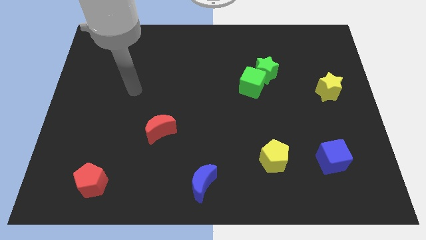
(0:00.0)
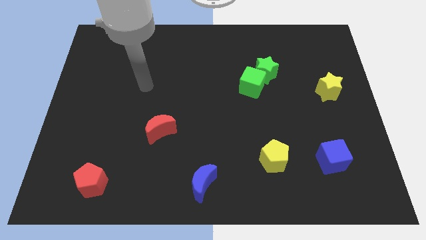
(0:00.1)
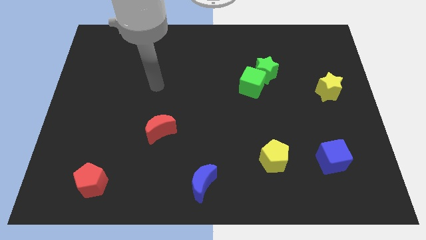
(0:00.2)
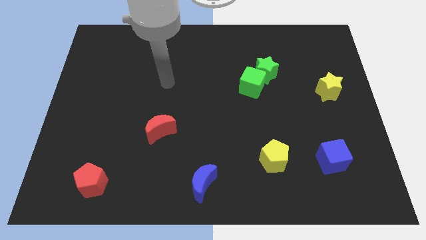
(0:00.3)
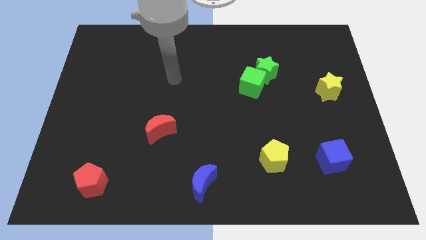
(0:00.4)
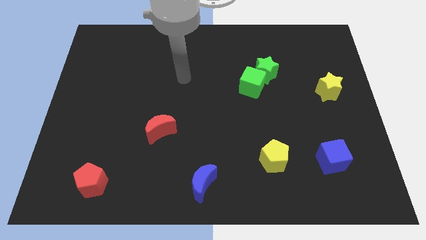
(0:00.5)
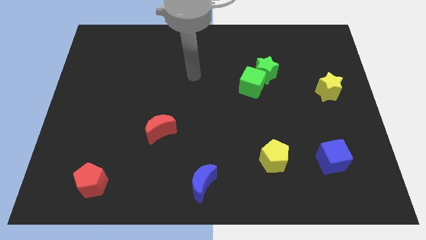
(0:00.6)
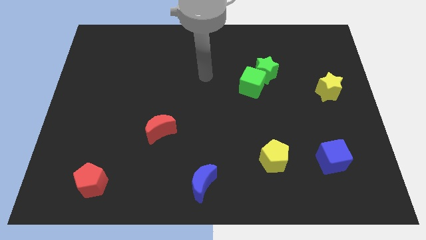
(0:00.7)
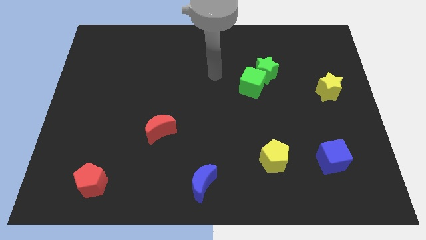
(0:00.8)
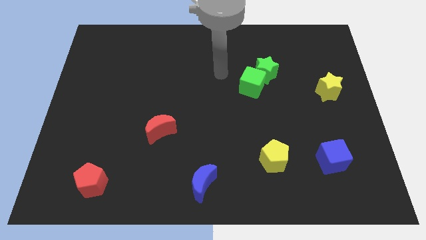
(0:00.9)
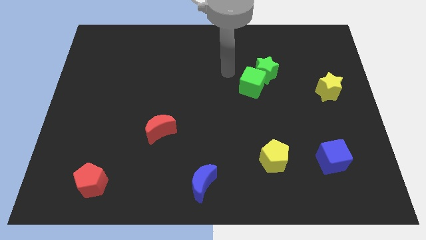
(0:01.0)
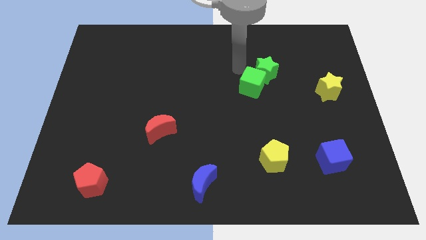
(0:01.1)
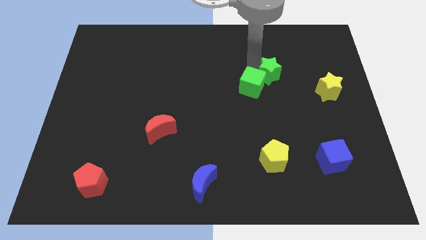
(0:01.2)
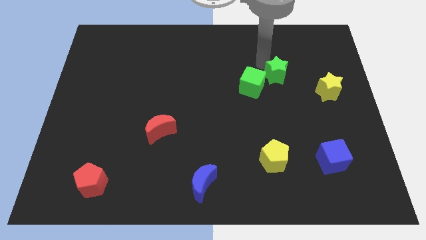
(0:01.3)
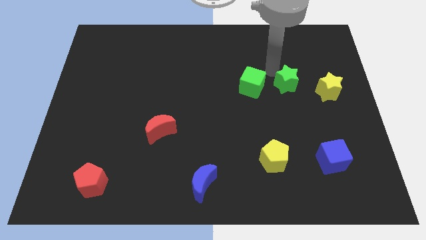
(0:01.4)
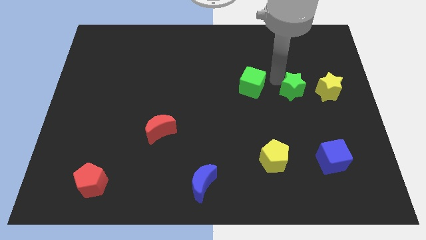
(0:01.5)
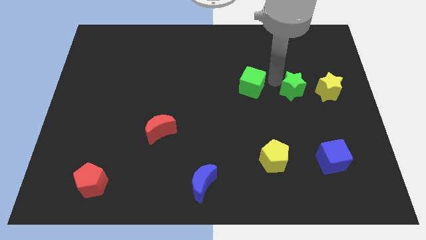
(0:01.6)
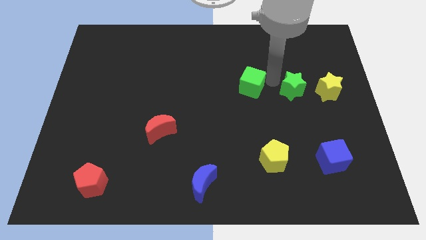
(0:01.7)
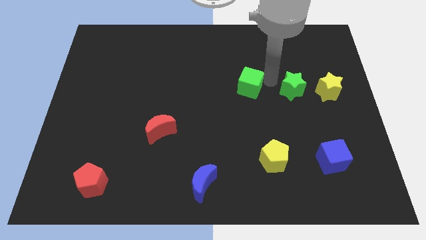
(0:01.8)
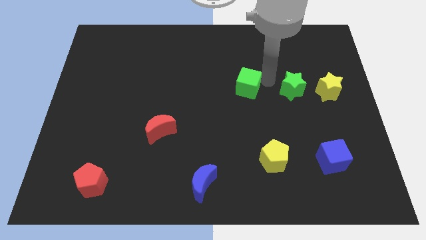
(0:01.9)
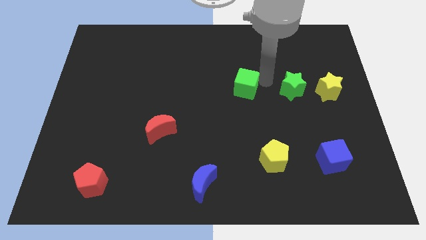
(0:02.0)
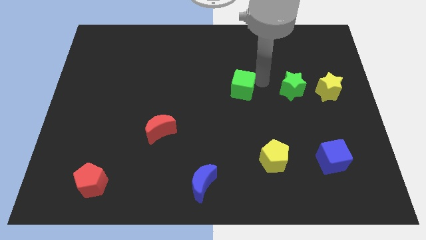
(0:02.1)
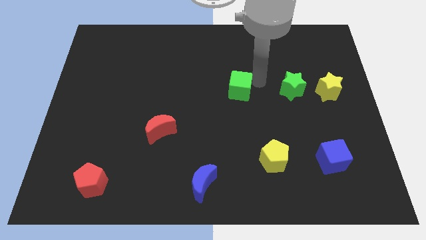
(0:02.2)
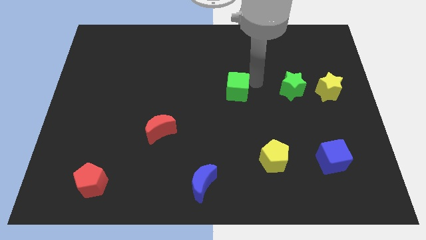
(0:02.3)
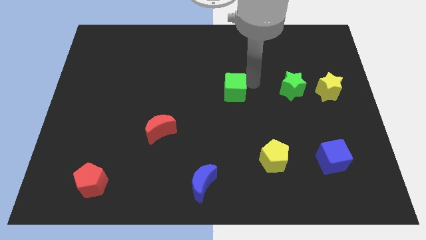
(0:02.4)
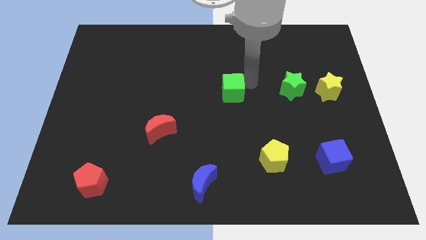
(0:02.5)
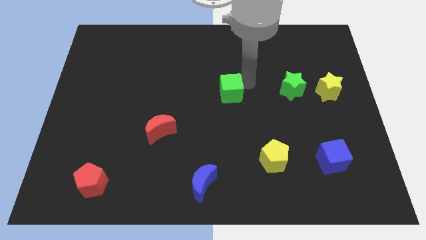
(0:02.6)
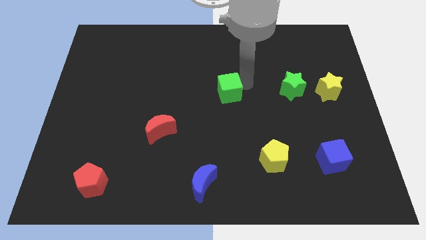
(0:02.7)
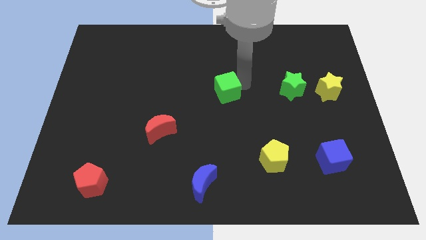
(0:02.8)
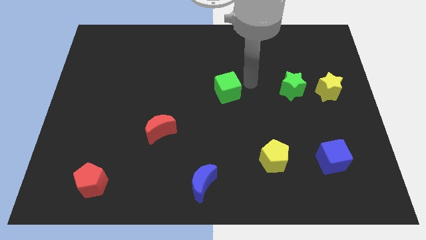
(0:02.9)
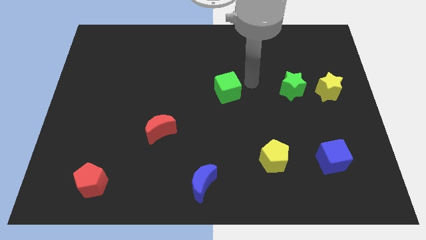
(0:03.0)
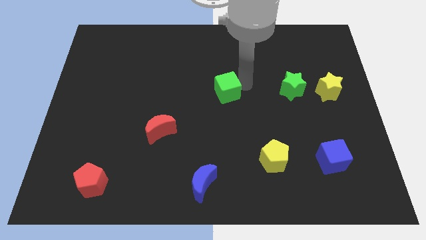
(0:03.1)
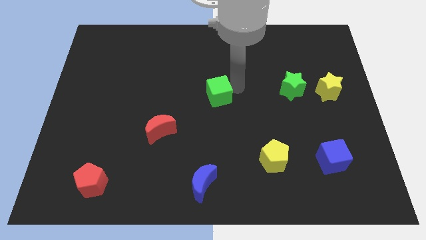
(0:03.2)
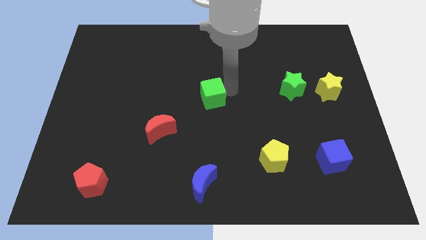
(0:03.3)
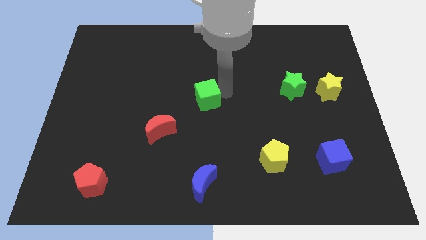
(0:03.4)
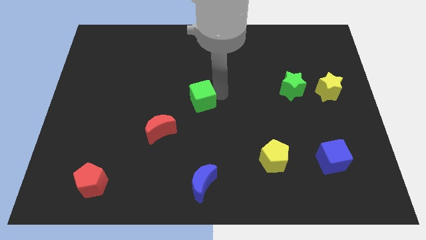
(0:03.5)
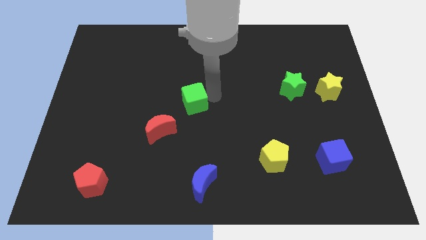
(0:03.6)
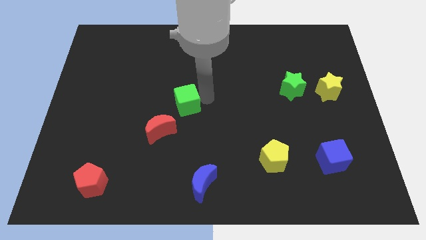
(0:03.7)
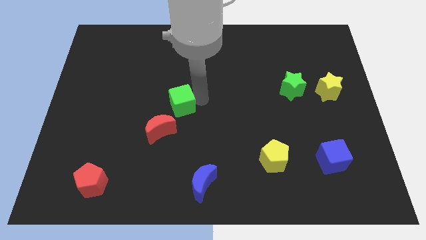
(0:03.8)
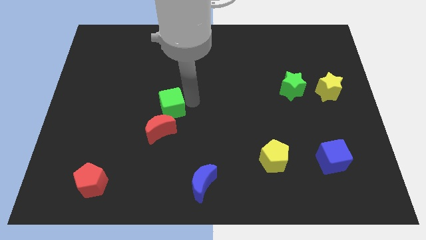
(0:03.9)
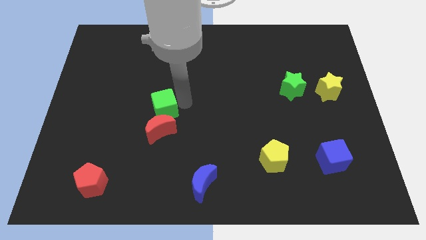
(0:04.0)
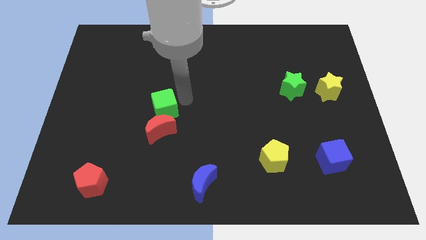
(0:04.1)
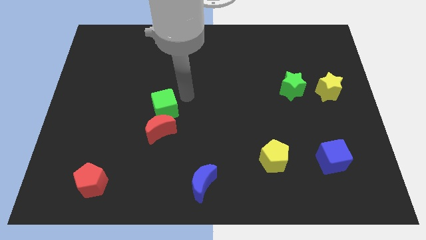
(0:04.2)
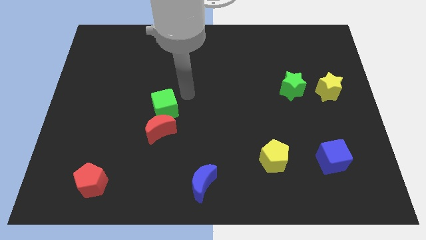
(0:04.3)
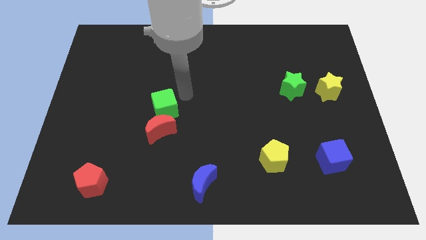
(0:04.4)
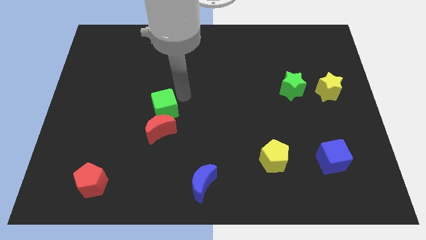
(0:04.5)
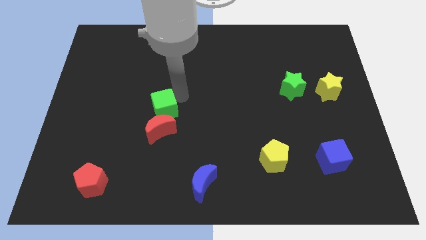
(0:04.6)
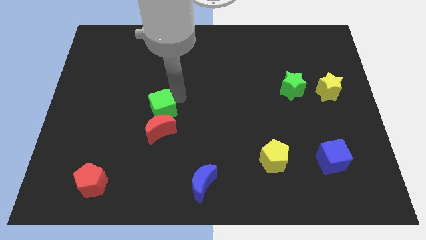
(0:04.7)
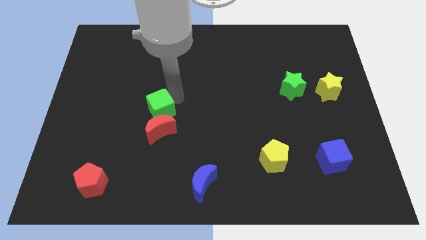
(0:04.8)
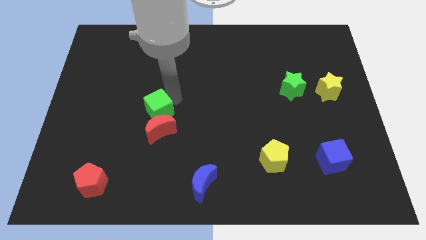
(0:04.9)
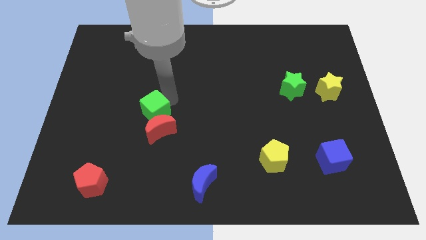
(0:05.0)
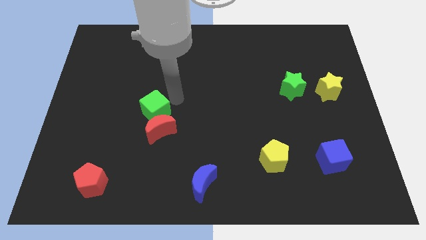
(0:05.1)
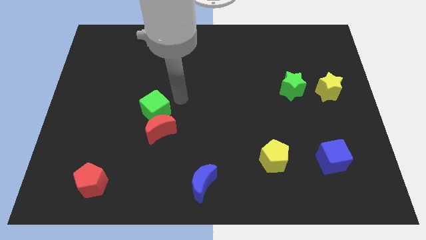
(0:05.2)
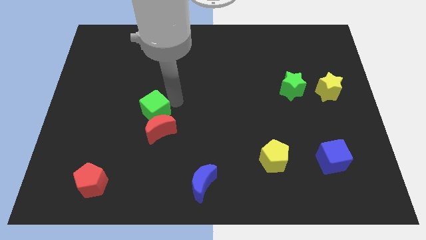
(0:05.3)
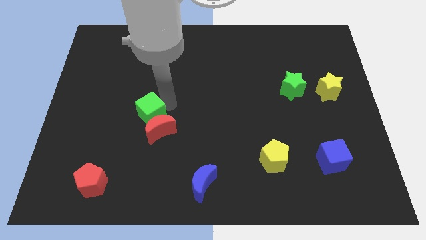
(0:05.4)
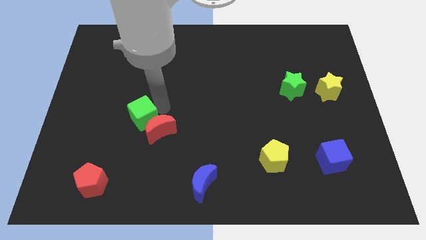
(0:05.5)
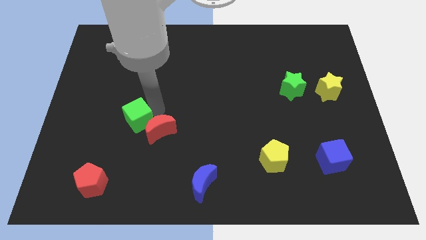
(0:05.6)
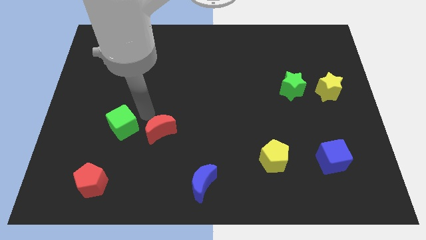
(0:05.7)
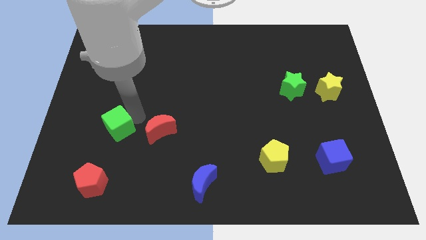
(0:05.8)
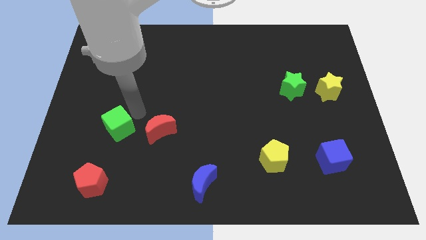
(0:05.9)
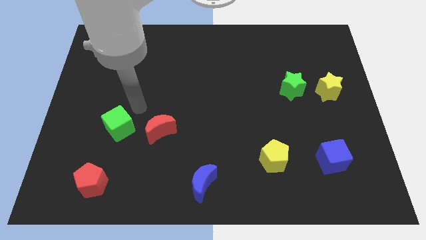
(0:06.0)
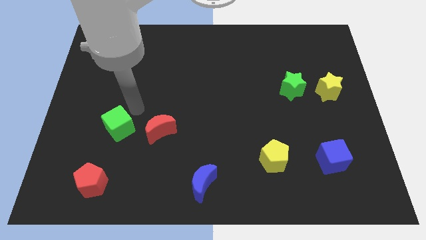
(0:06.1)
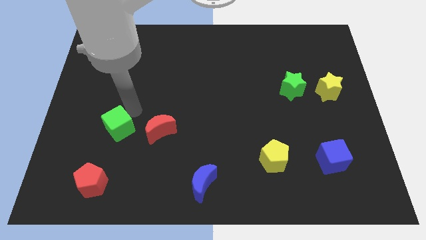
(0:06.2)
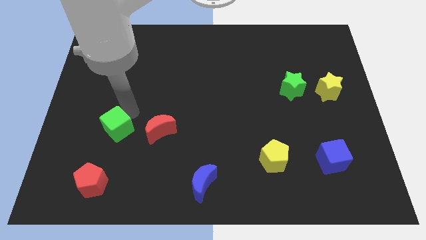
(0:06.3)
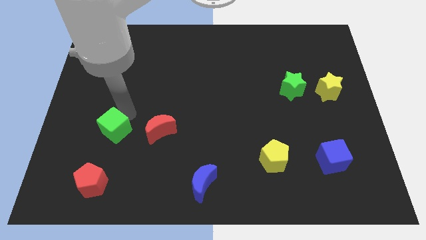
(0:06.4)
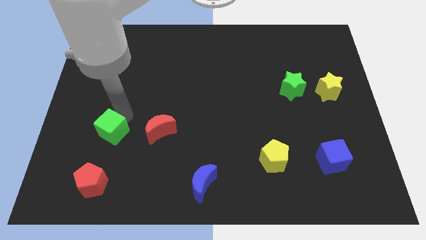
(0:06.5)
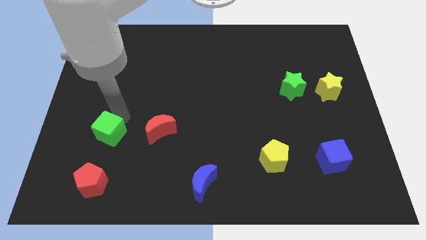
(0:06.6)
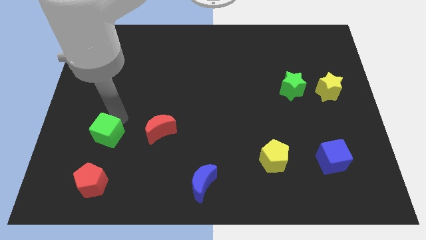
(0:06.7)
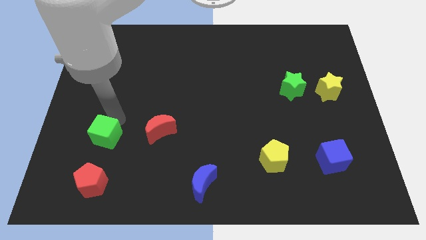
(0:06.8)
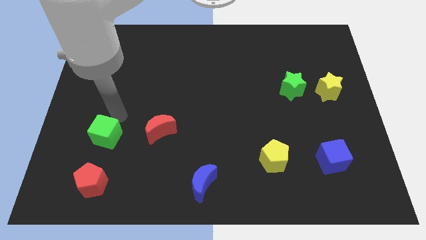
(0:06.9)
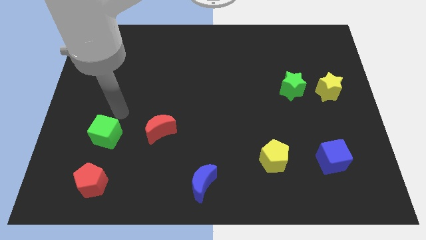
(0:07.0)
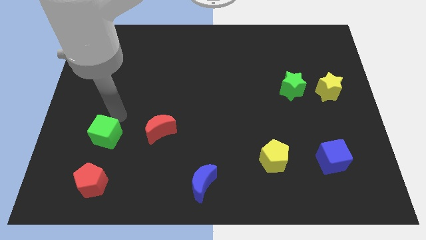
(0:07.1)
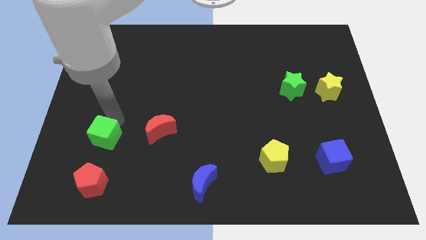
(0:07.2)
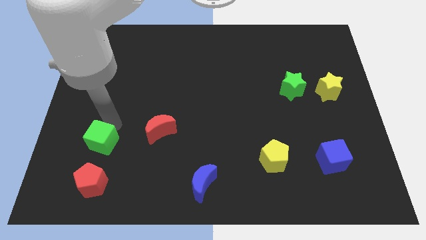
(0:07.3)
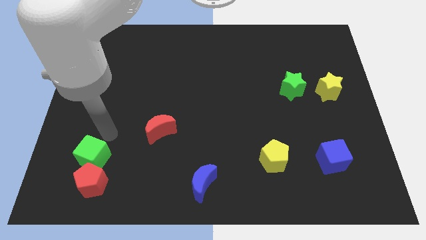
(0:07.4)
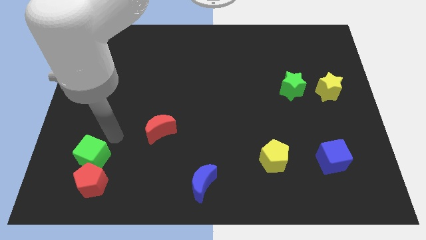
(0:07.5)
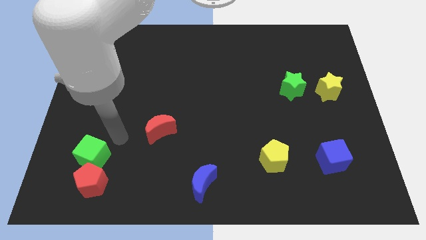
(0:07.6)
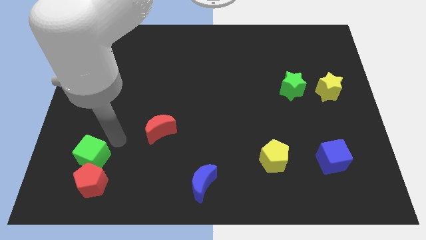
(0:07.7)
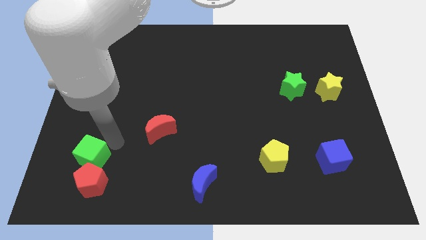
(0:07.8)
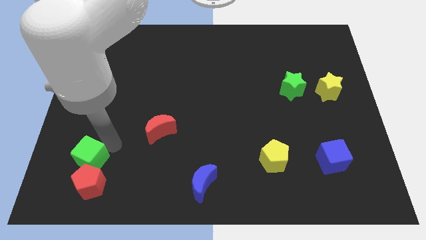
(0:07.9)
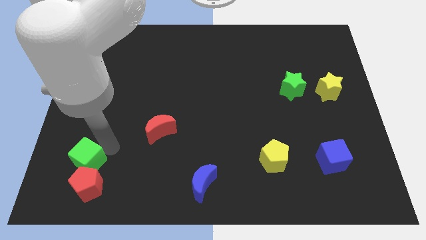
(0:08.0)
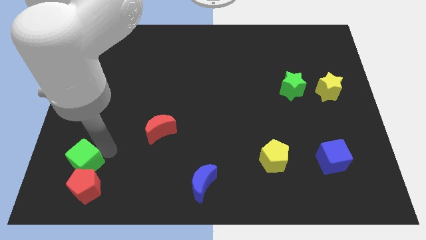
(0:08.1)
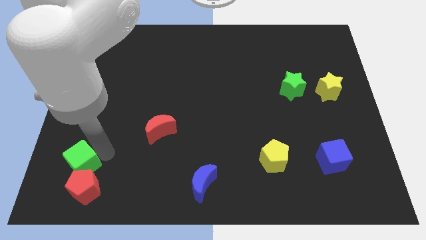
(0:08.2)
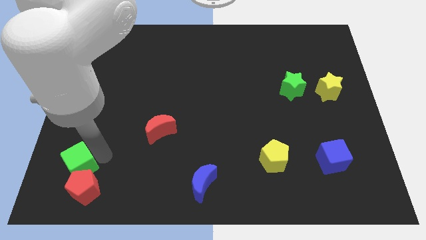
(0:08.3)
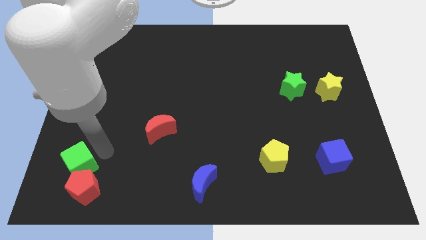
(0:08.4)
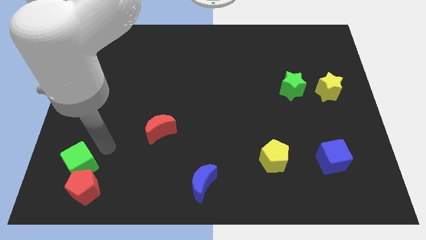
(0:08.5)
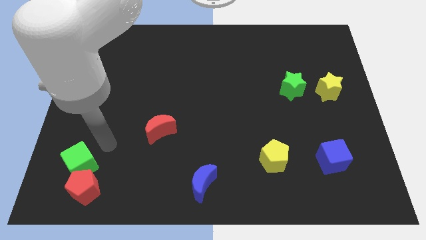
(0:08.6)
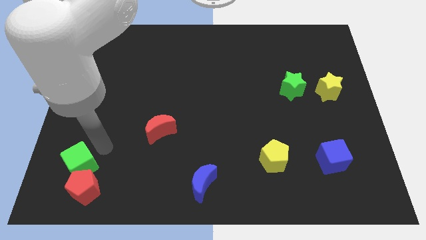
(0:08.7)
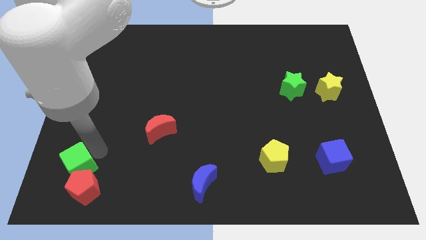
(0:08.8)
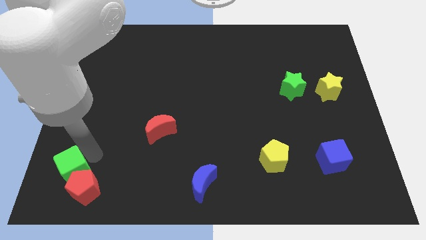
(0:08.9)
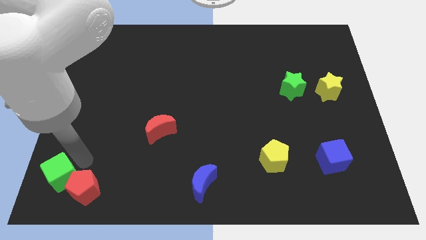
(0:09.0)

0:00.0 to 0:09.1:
push the green cube to the bottom left corner
